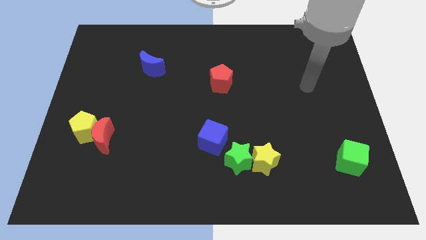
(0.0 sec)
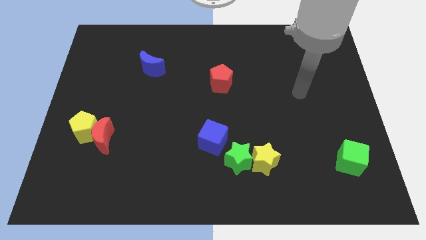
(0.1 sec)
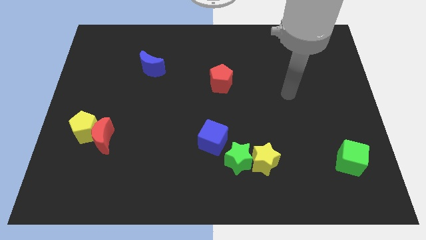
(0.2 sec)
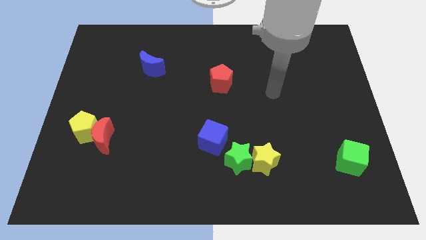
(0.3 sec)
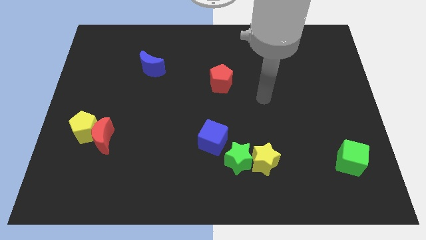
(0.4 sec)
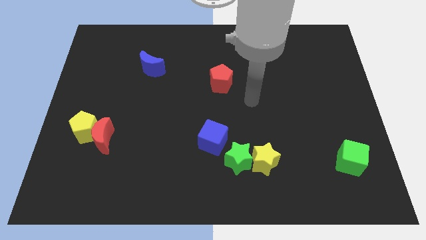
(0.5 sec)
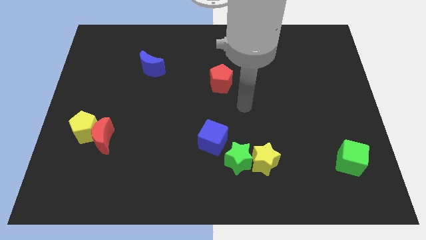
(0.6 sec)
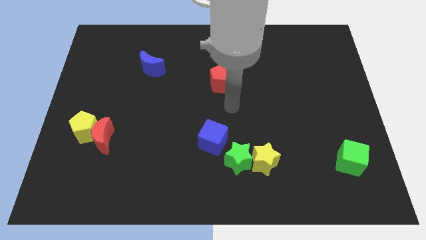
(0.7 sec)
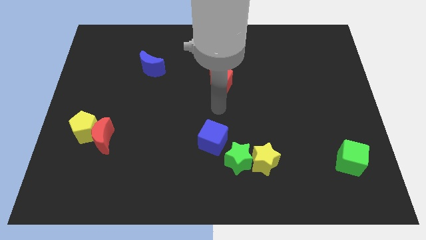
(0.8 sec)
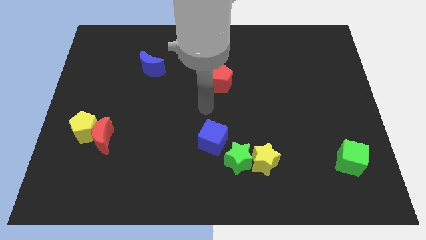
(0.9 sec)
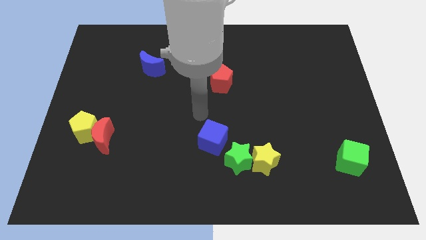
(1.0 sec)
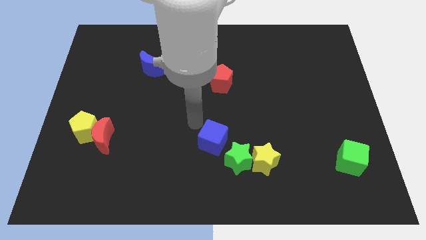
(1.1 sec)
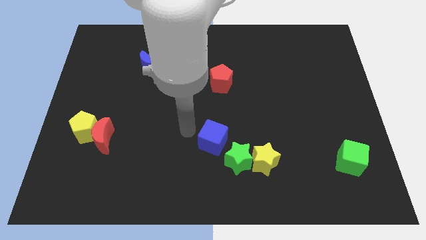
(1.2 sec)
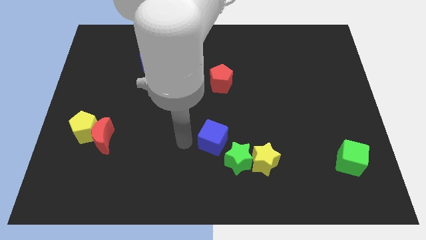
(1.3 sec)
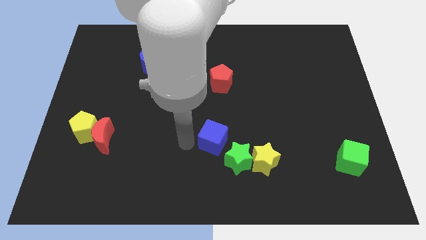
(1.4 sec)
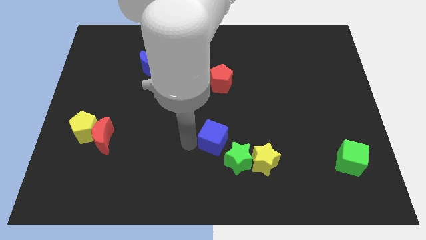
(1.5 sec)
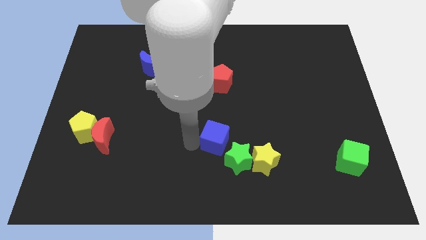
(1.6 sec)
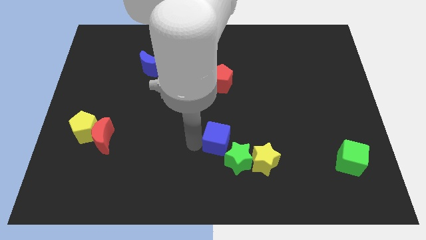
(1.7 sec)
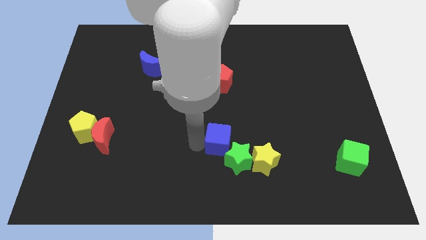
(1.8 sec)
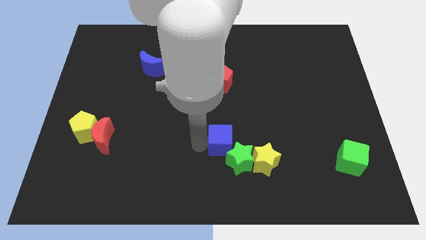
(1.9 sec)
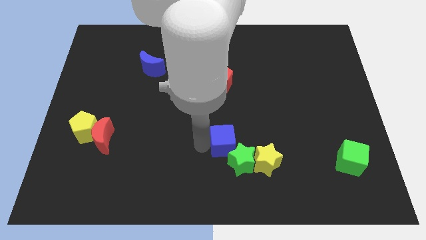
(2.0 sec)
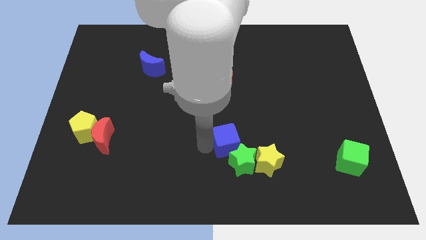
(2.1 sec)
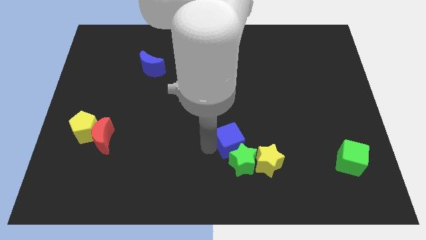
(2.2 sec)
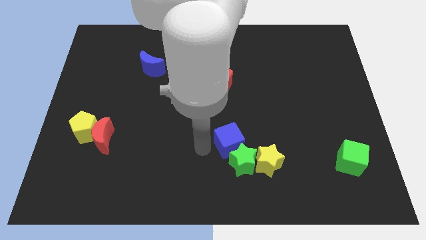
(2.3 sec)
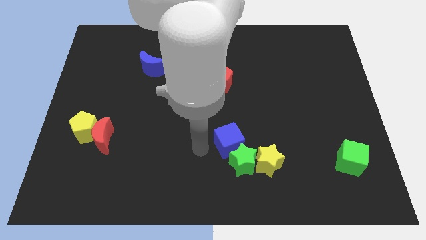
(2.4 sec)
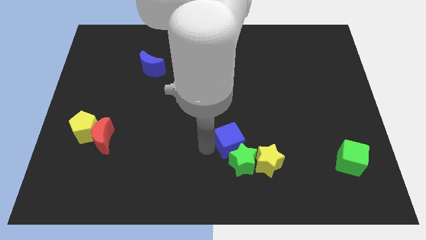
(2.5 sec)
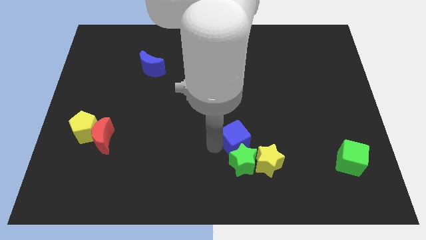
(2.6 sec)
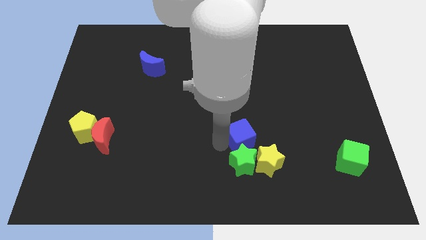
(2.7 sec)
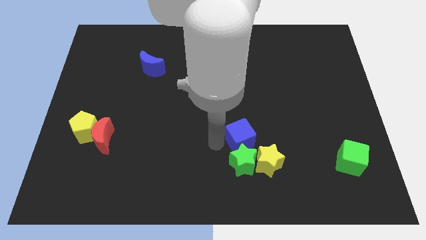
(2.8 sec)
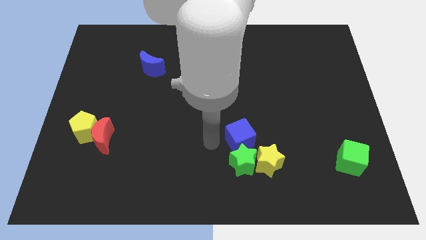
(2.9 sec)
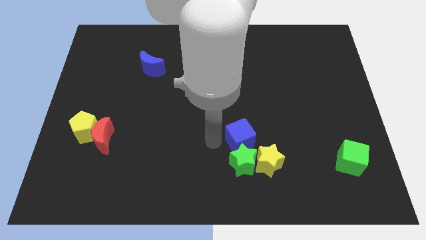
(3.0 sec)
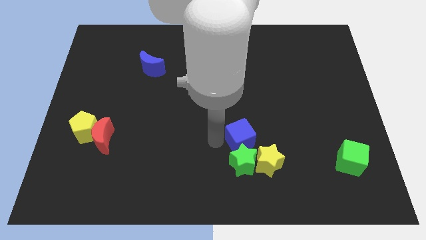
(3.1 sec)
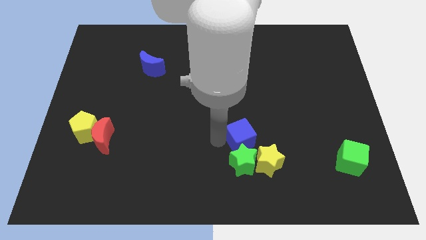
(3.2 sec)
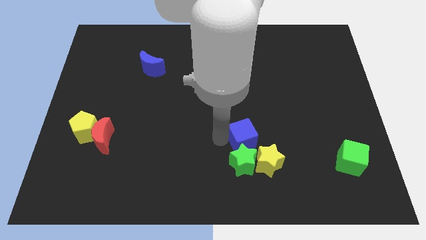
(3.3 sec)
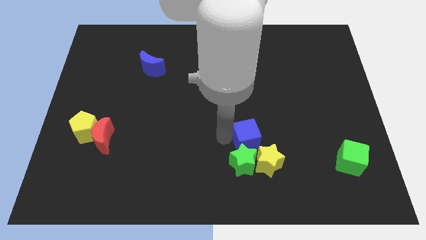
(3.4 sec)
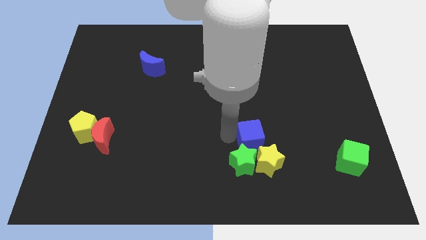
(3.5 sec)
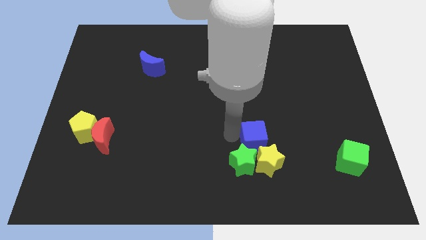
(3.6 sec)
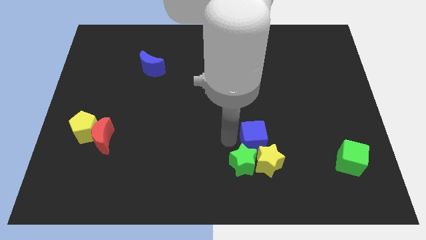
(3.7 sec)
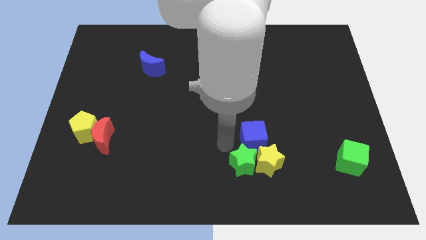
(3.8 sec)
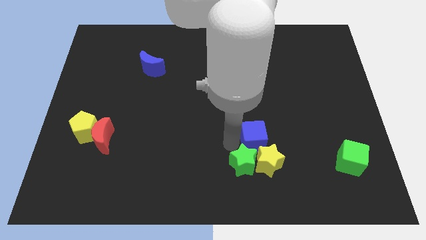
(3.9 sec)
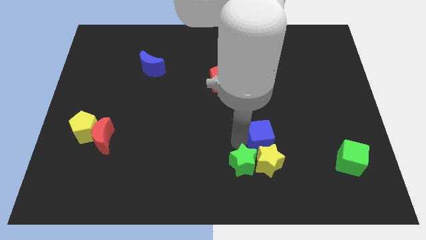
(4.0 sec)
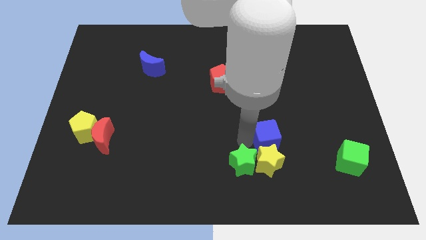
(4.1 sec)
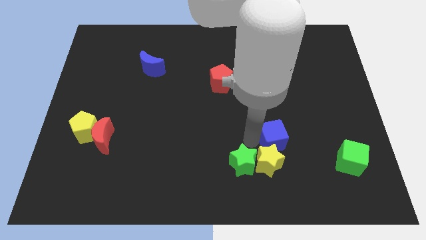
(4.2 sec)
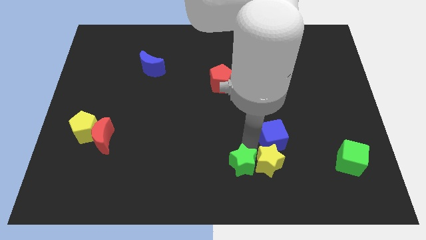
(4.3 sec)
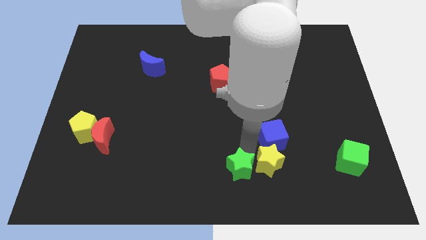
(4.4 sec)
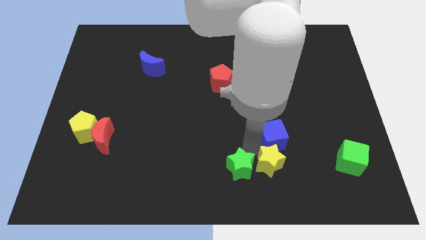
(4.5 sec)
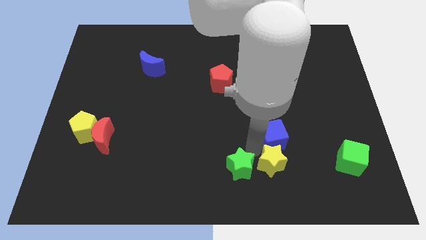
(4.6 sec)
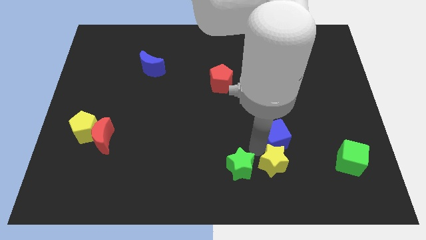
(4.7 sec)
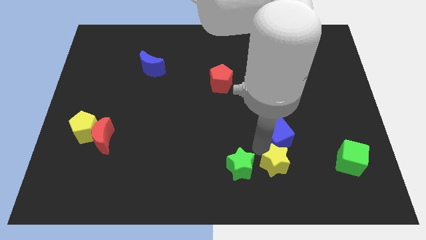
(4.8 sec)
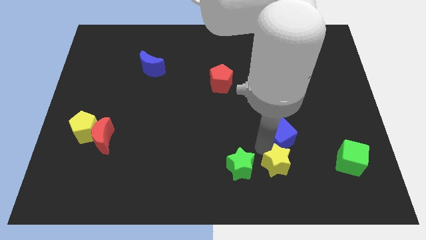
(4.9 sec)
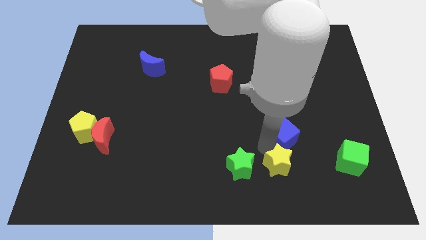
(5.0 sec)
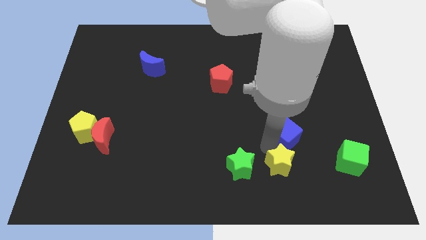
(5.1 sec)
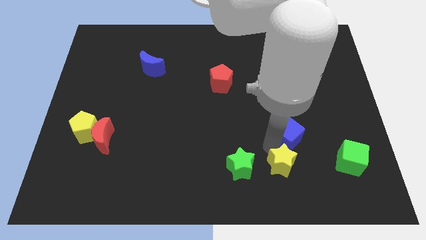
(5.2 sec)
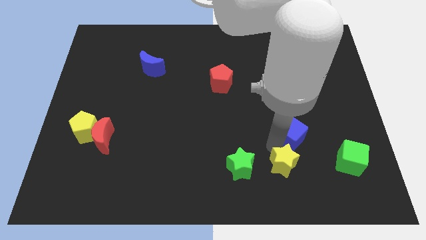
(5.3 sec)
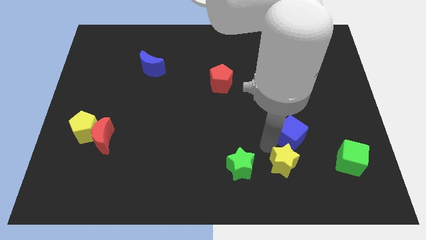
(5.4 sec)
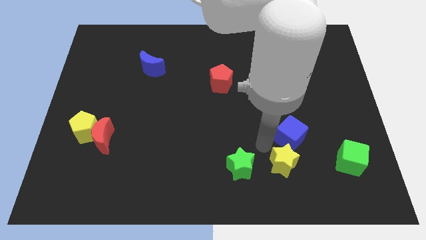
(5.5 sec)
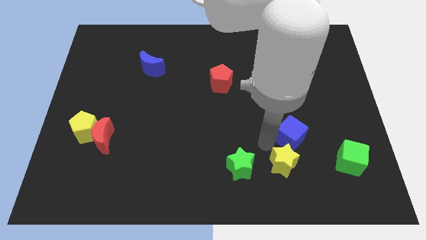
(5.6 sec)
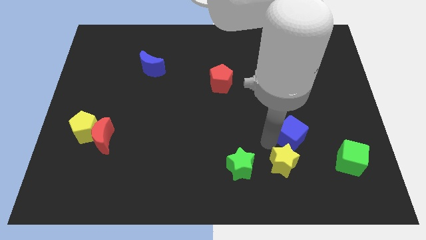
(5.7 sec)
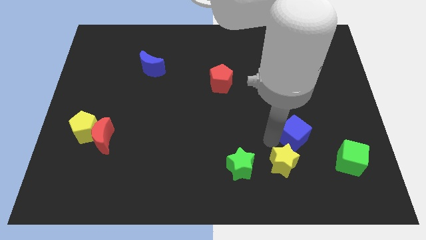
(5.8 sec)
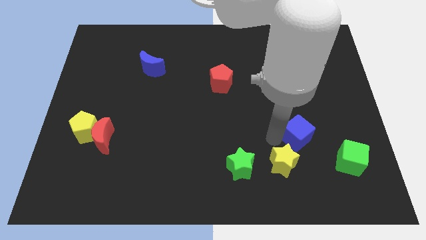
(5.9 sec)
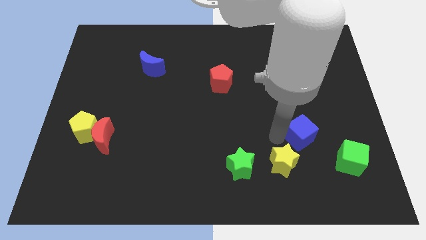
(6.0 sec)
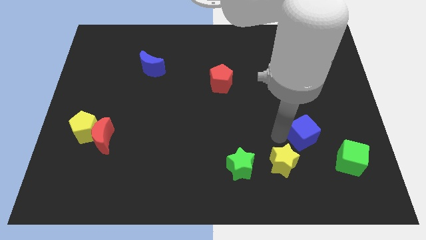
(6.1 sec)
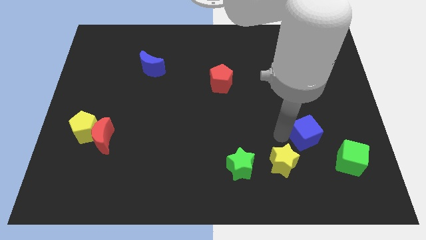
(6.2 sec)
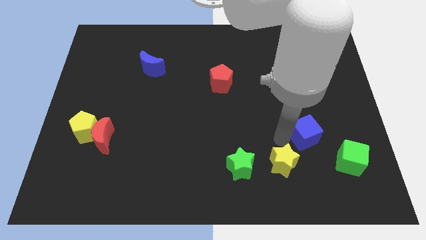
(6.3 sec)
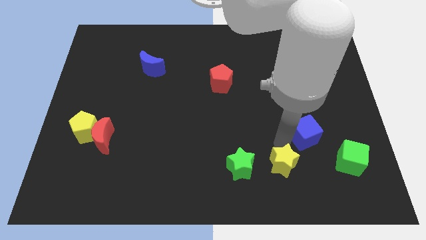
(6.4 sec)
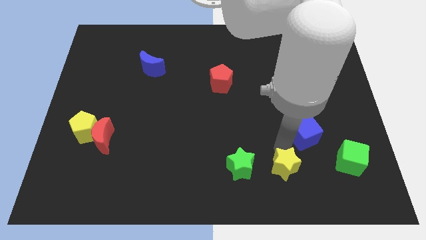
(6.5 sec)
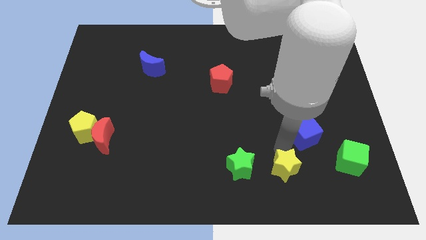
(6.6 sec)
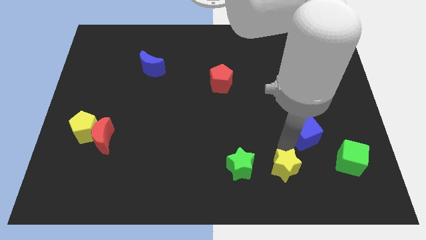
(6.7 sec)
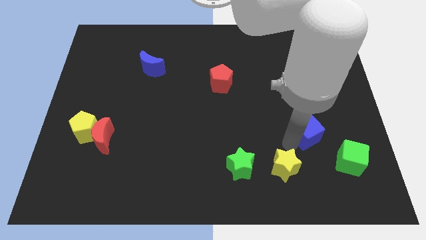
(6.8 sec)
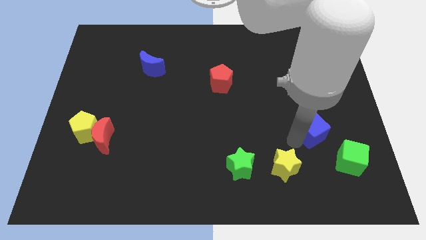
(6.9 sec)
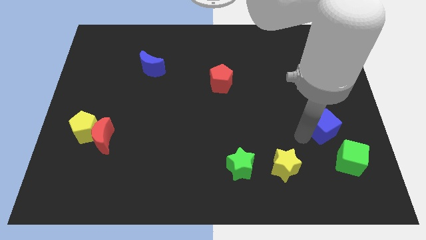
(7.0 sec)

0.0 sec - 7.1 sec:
push the blue cube above the green cube
